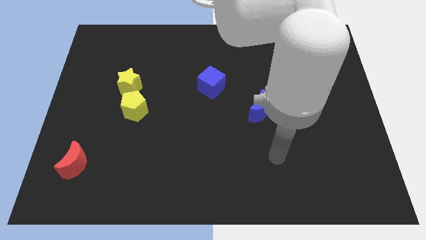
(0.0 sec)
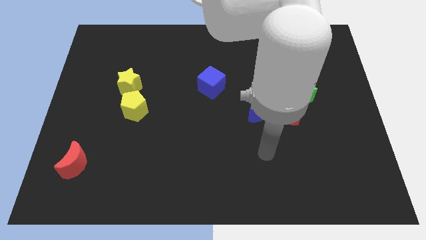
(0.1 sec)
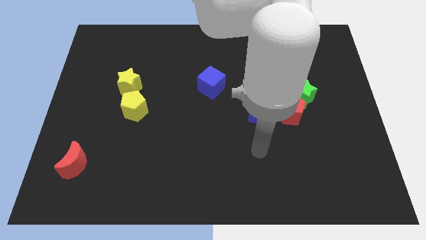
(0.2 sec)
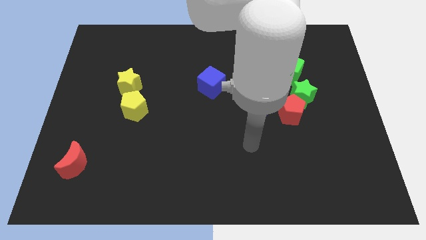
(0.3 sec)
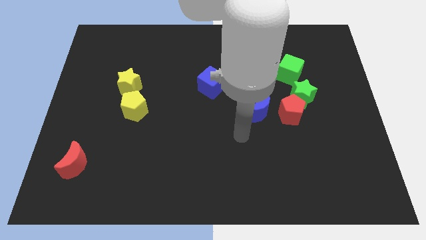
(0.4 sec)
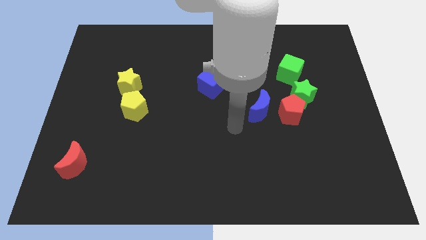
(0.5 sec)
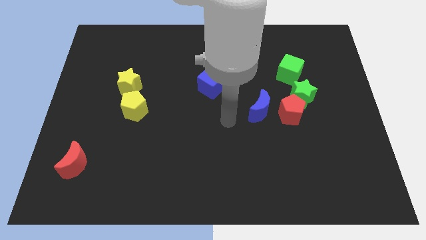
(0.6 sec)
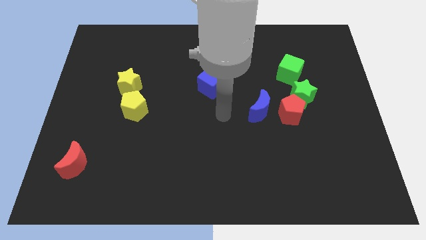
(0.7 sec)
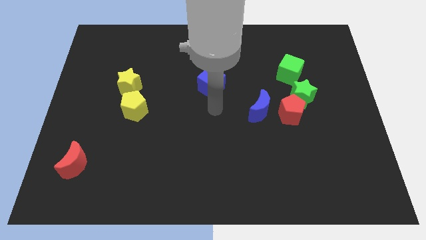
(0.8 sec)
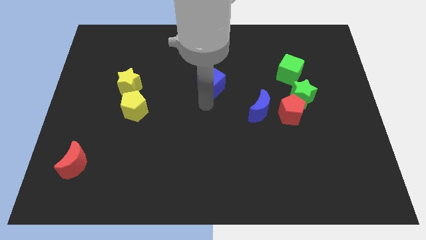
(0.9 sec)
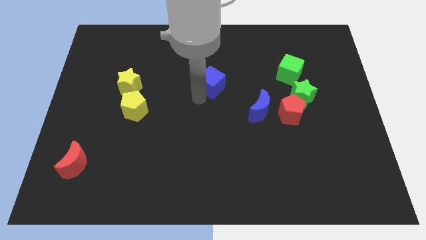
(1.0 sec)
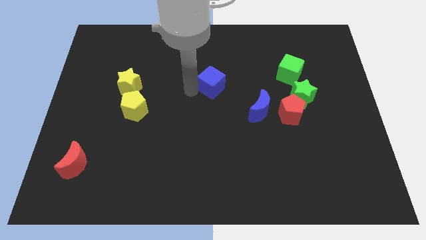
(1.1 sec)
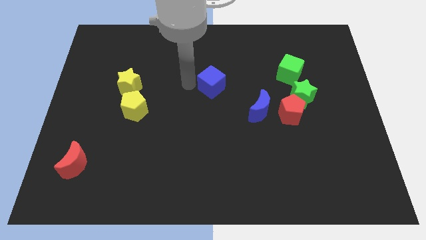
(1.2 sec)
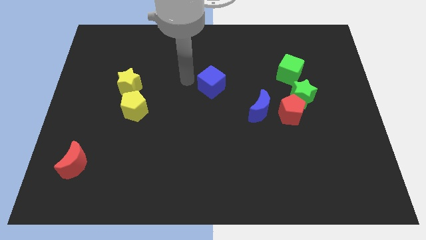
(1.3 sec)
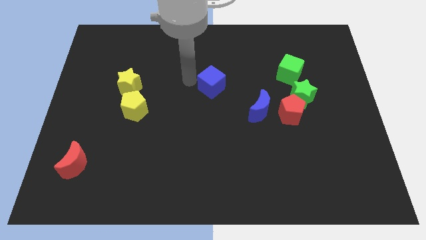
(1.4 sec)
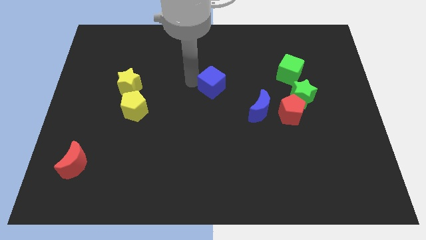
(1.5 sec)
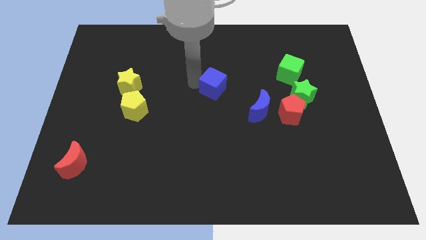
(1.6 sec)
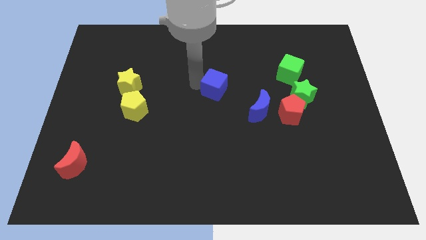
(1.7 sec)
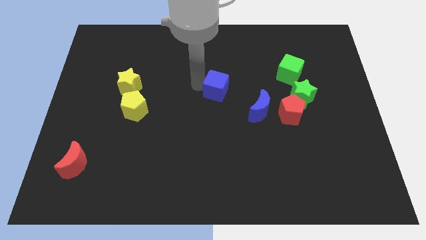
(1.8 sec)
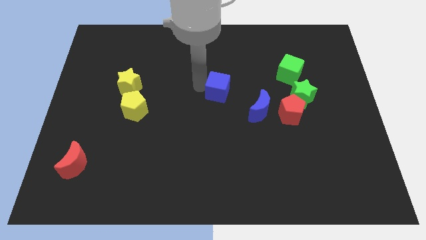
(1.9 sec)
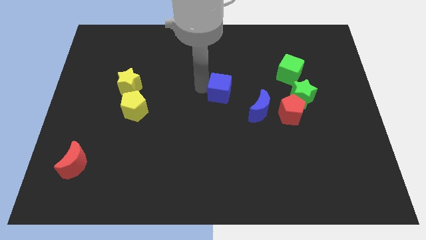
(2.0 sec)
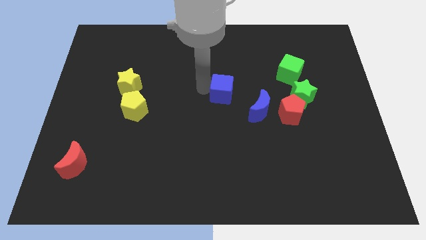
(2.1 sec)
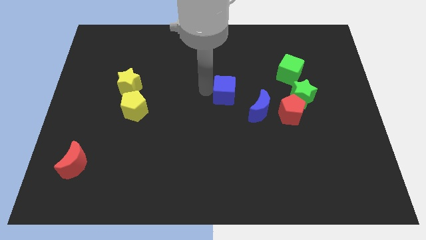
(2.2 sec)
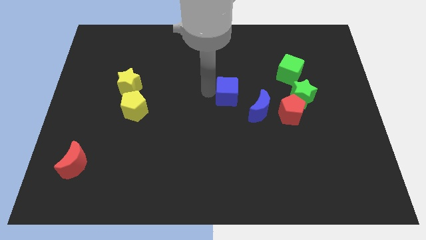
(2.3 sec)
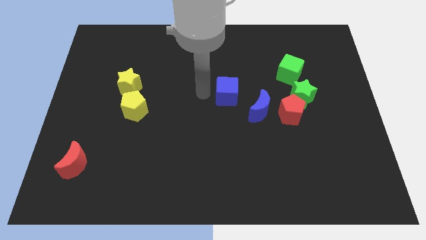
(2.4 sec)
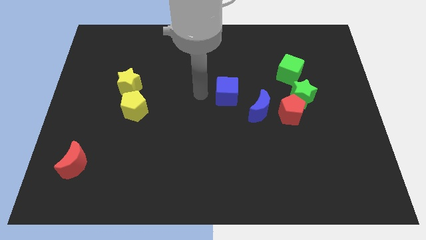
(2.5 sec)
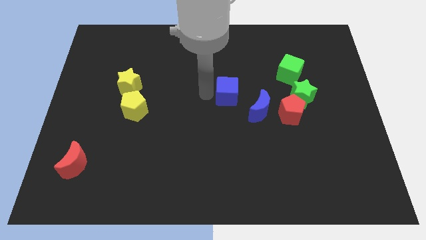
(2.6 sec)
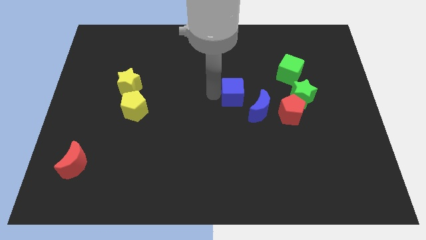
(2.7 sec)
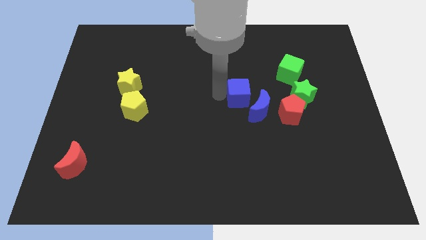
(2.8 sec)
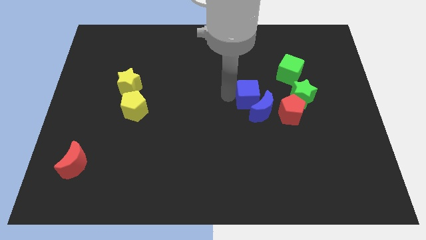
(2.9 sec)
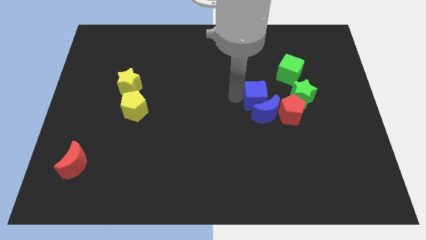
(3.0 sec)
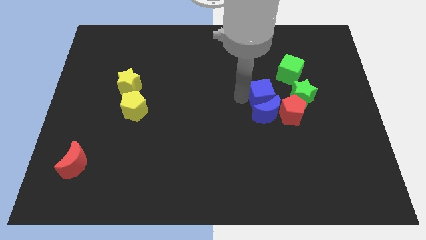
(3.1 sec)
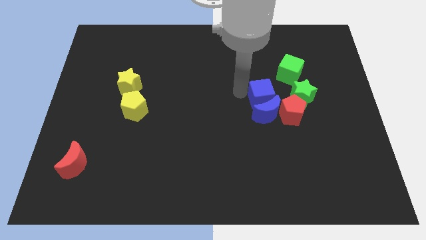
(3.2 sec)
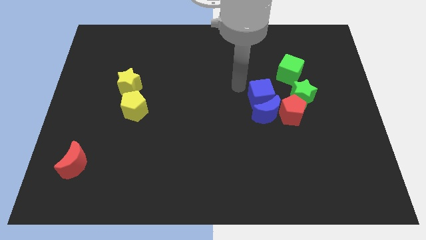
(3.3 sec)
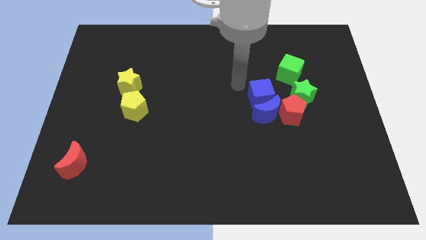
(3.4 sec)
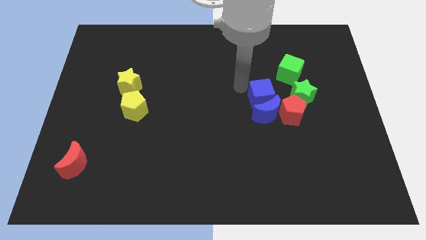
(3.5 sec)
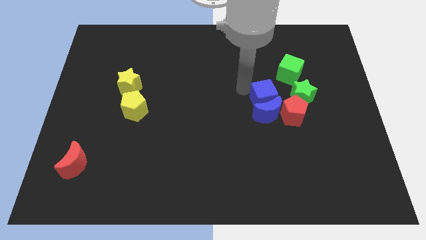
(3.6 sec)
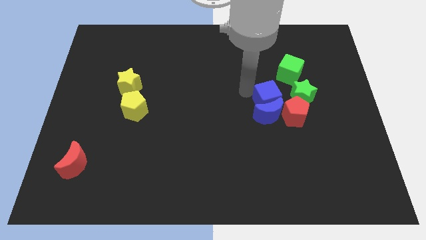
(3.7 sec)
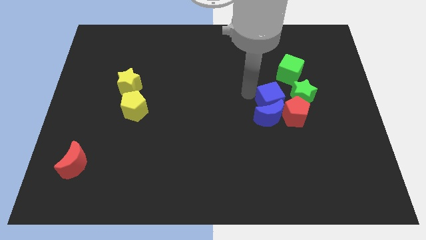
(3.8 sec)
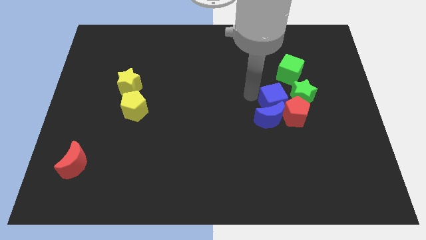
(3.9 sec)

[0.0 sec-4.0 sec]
push the blue cube towards the red pentagon

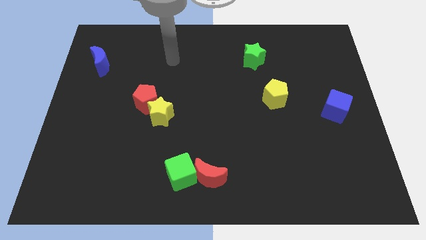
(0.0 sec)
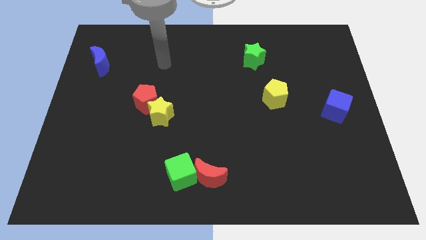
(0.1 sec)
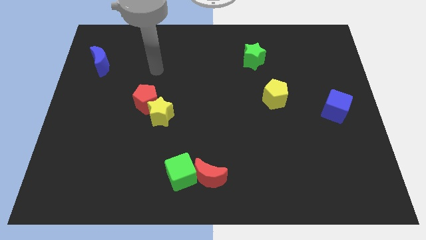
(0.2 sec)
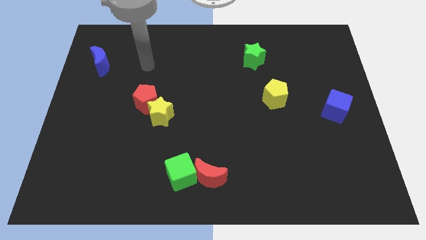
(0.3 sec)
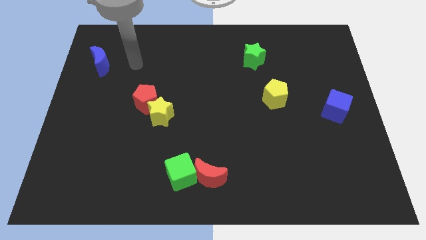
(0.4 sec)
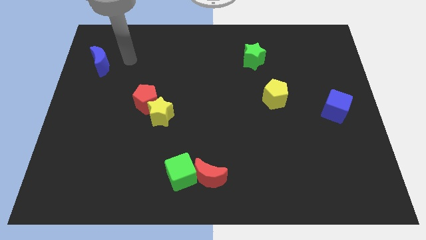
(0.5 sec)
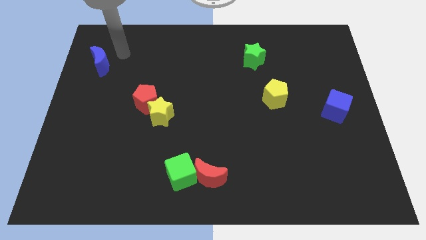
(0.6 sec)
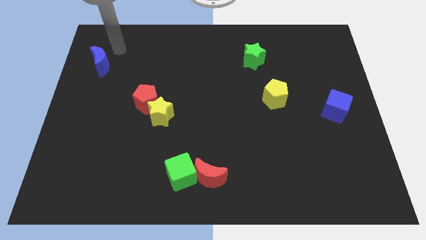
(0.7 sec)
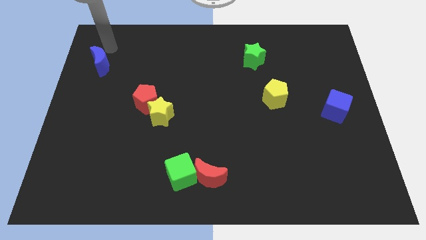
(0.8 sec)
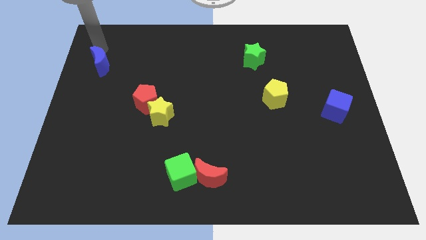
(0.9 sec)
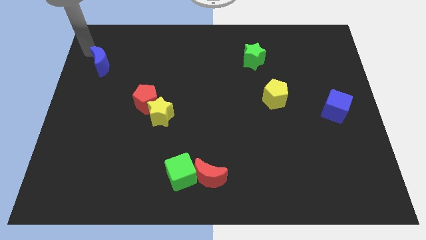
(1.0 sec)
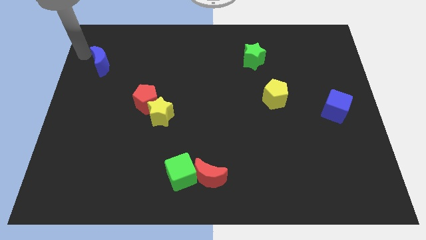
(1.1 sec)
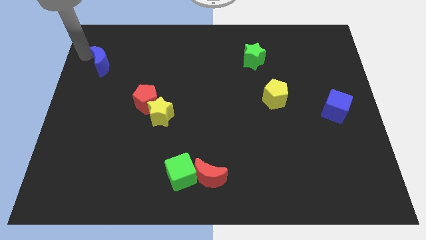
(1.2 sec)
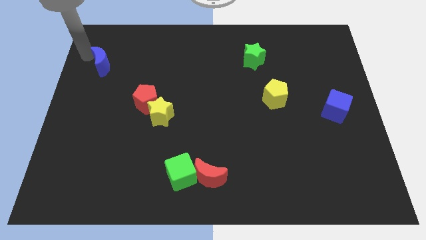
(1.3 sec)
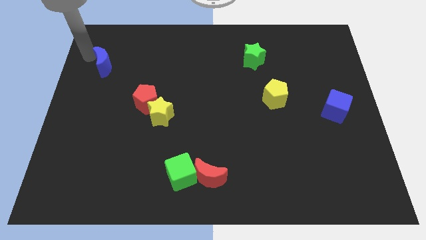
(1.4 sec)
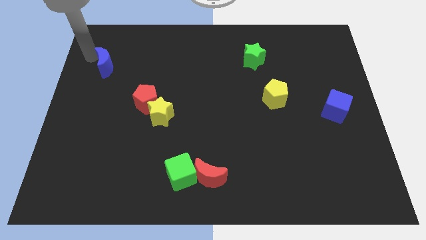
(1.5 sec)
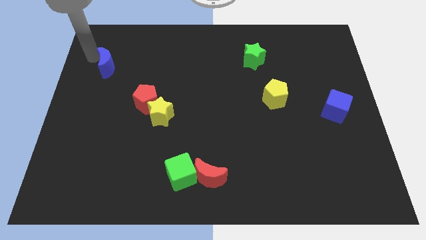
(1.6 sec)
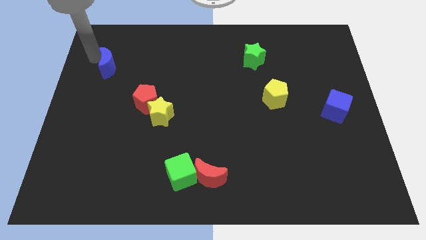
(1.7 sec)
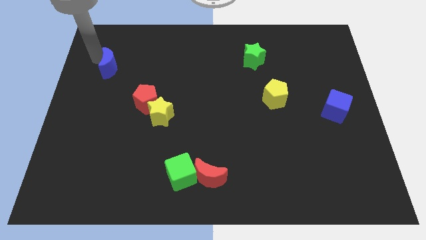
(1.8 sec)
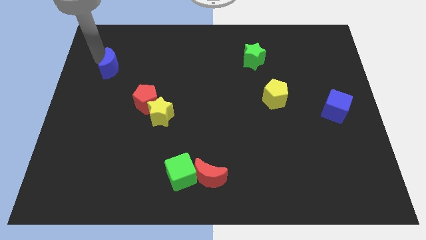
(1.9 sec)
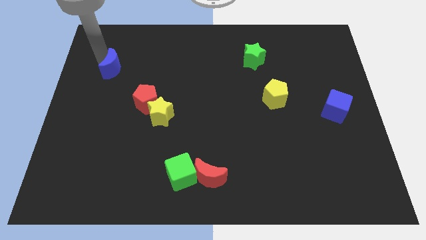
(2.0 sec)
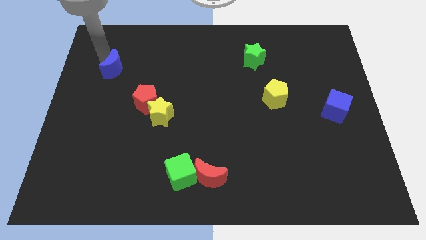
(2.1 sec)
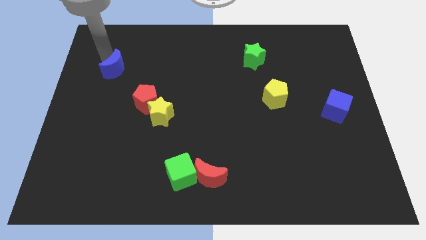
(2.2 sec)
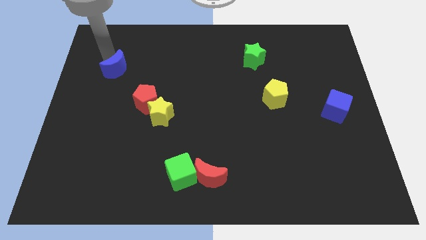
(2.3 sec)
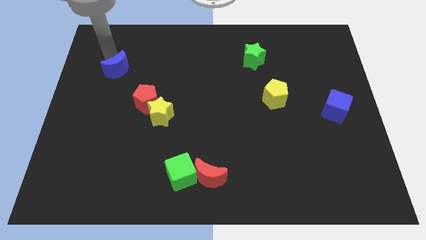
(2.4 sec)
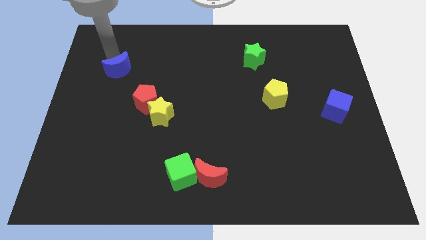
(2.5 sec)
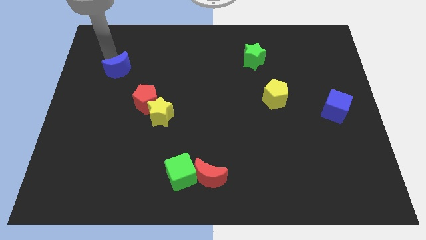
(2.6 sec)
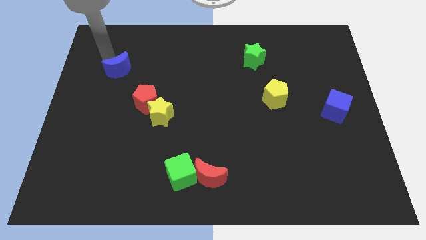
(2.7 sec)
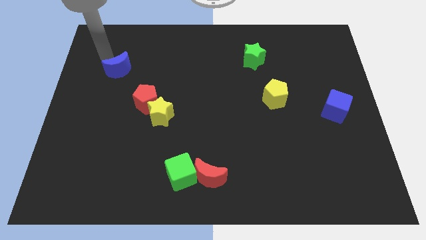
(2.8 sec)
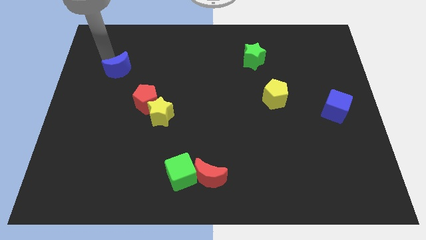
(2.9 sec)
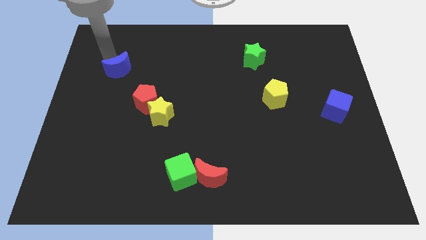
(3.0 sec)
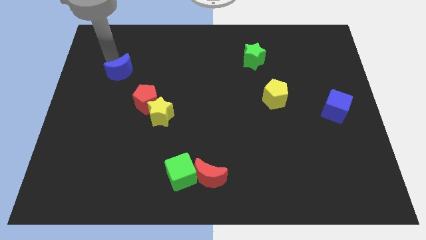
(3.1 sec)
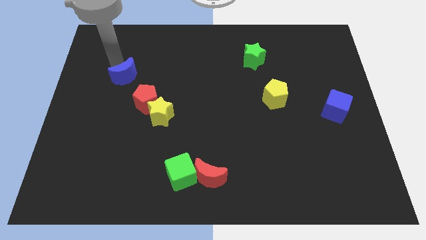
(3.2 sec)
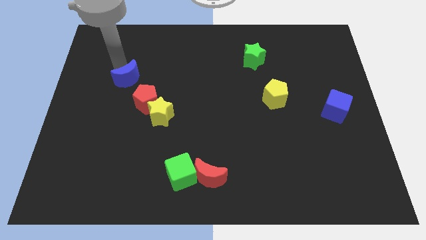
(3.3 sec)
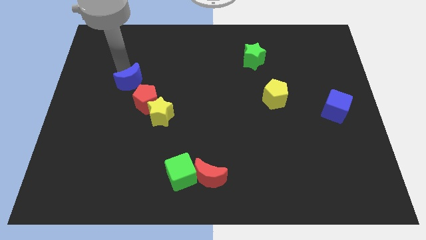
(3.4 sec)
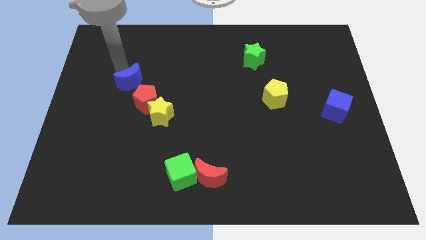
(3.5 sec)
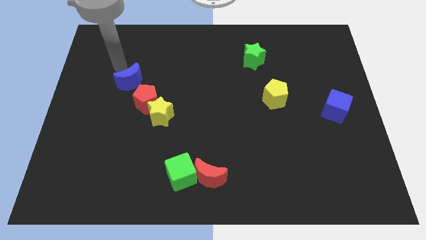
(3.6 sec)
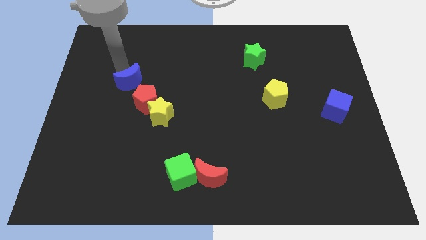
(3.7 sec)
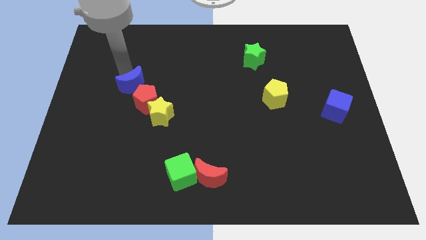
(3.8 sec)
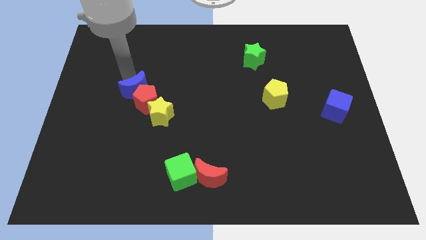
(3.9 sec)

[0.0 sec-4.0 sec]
put the blue moon to the red pentagon

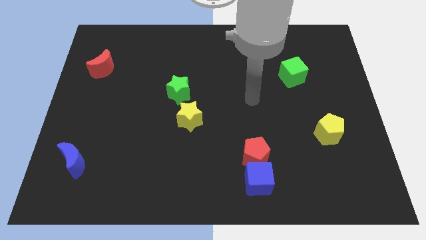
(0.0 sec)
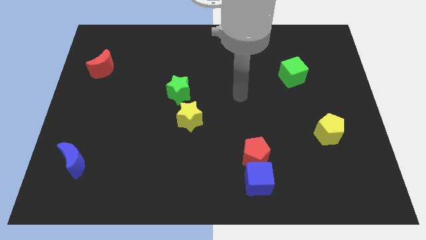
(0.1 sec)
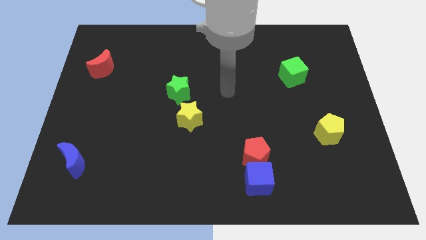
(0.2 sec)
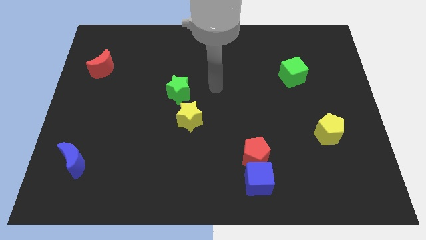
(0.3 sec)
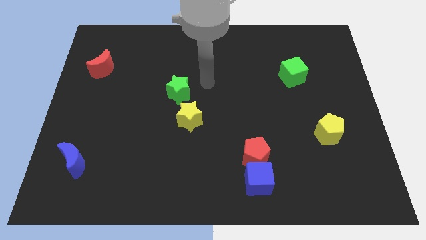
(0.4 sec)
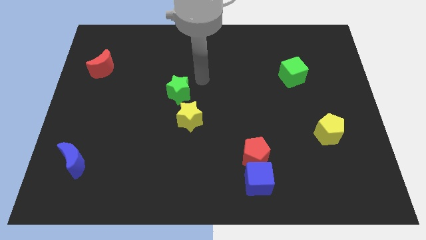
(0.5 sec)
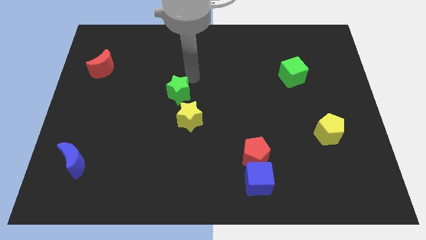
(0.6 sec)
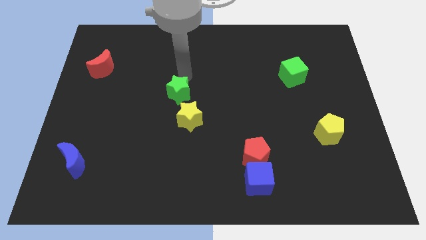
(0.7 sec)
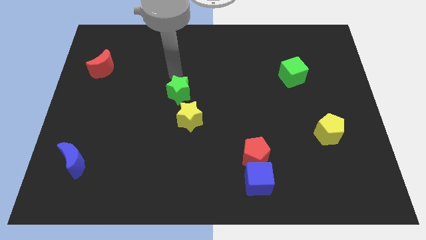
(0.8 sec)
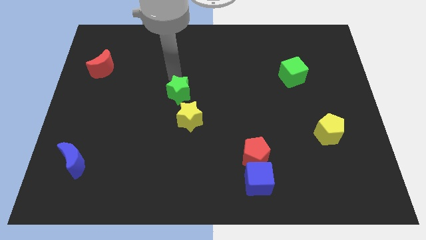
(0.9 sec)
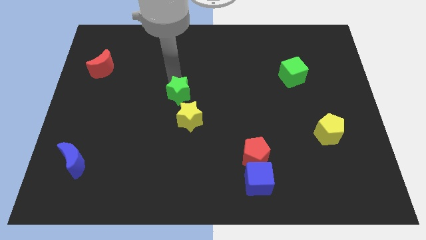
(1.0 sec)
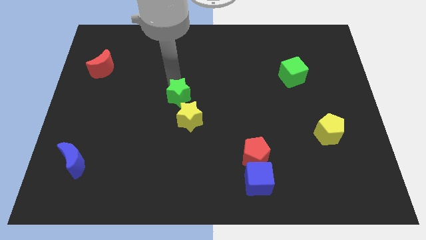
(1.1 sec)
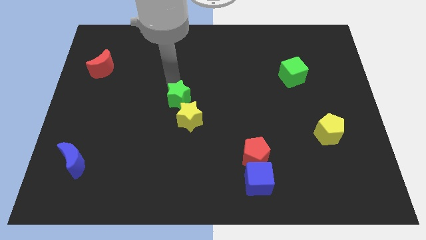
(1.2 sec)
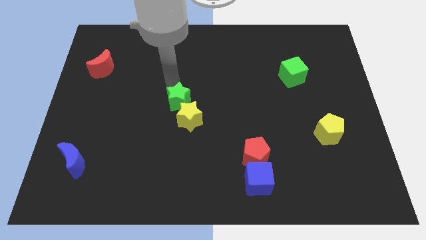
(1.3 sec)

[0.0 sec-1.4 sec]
slide the green star close to the yellow star
